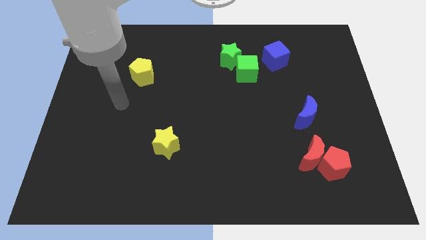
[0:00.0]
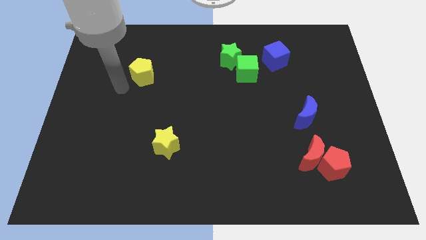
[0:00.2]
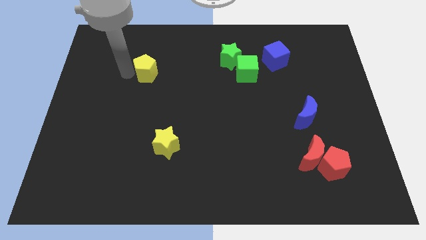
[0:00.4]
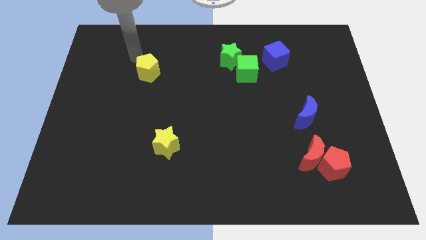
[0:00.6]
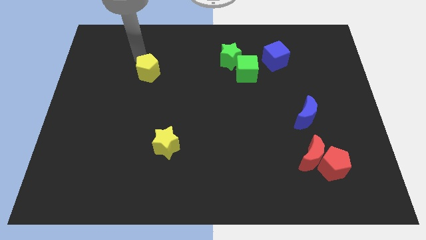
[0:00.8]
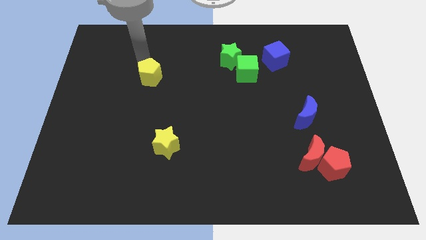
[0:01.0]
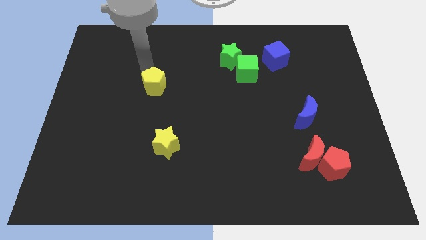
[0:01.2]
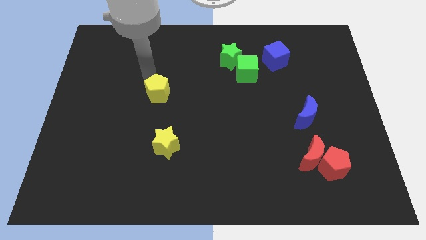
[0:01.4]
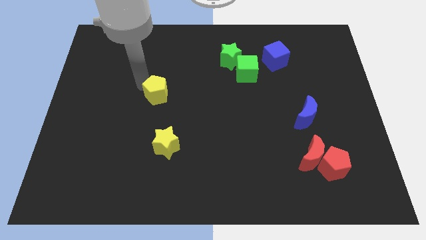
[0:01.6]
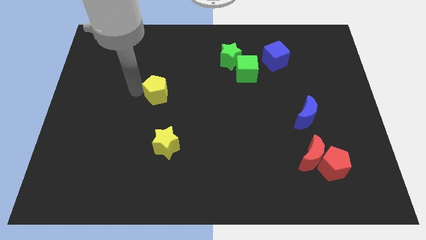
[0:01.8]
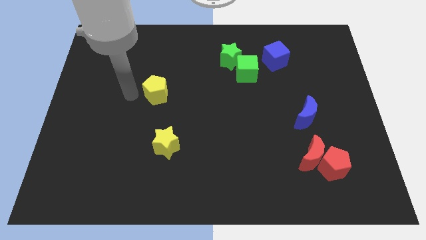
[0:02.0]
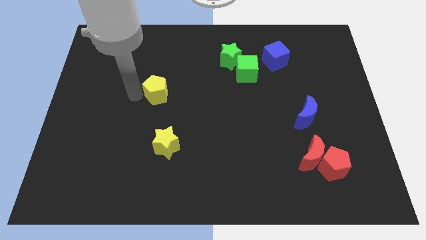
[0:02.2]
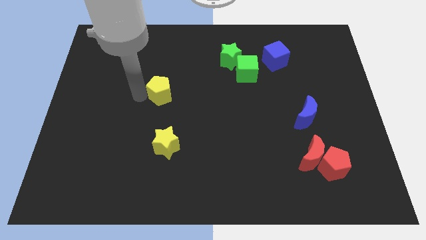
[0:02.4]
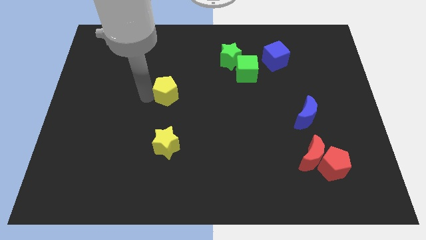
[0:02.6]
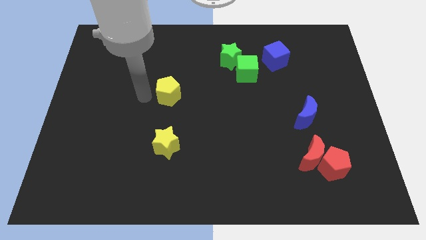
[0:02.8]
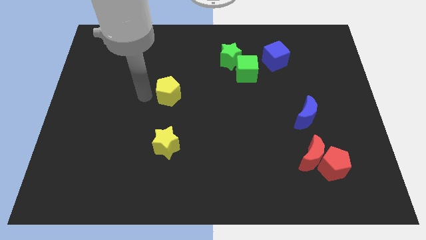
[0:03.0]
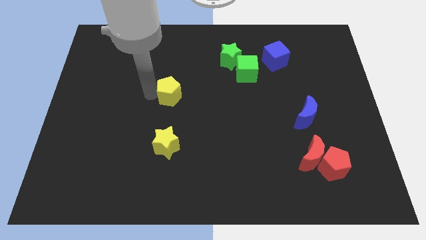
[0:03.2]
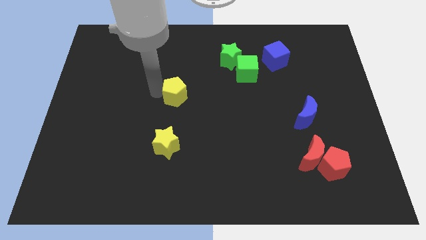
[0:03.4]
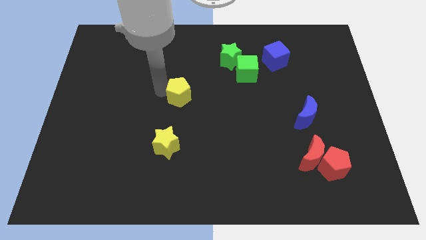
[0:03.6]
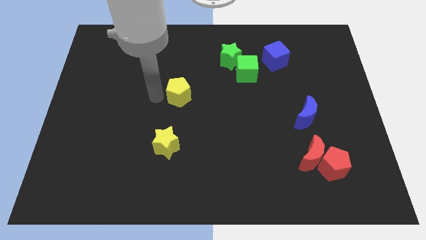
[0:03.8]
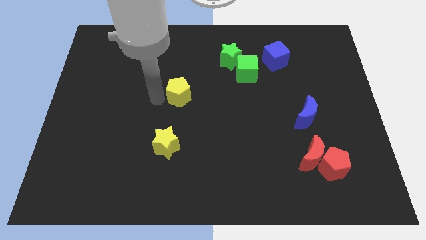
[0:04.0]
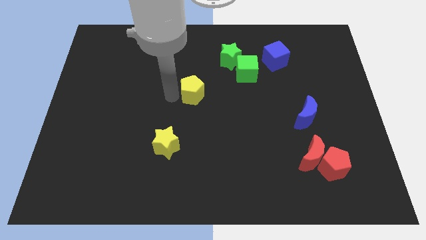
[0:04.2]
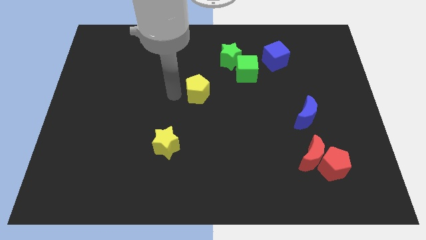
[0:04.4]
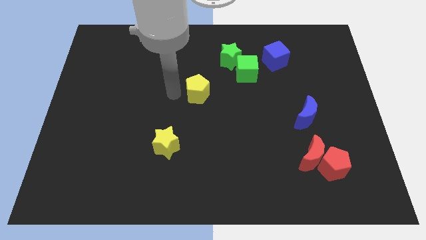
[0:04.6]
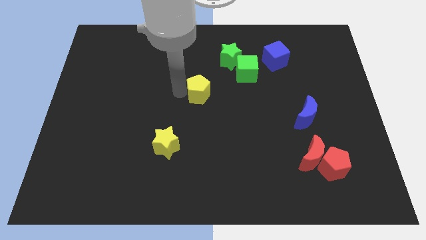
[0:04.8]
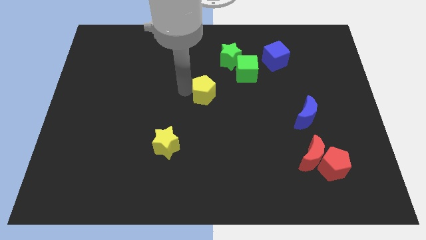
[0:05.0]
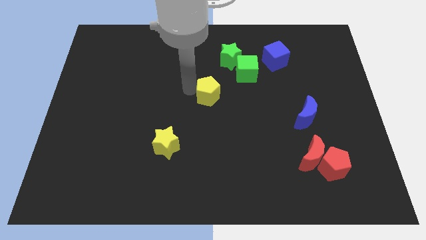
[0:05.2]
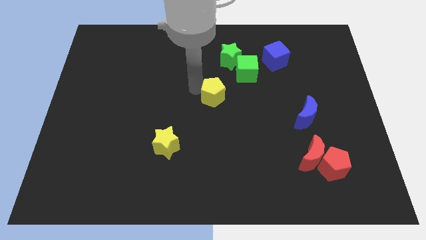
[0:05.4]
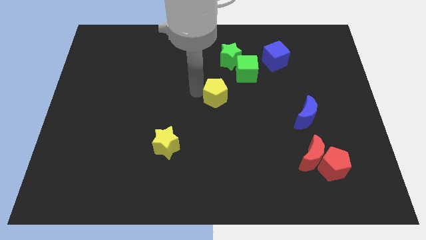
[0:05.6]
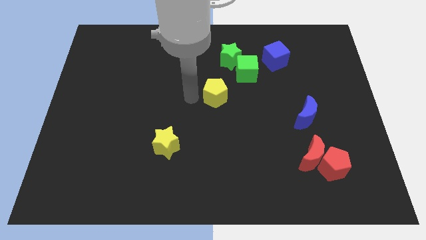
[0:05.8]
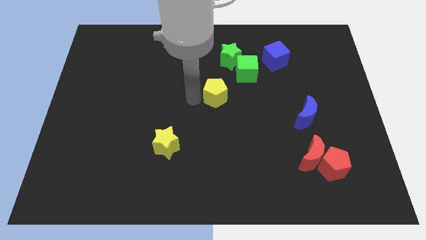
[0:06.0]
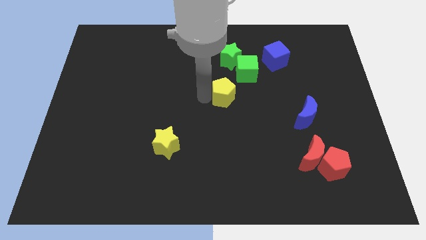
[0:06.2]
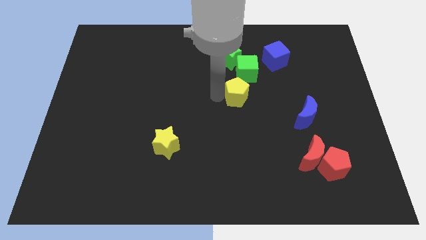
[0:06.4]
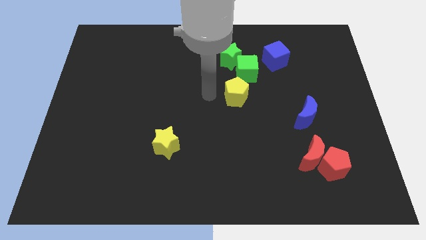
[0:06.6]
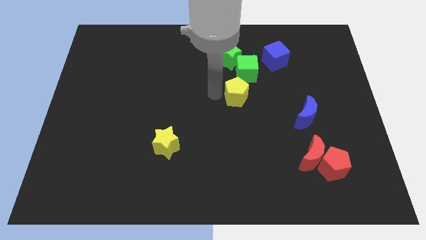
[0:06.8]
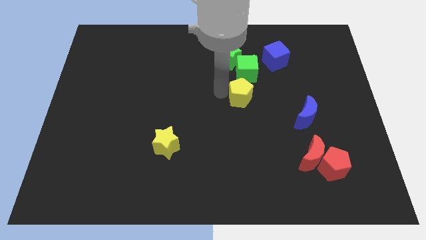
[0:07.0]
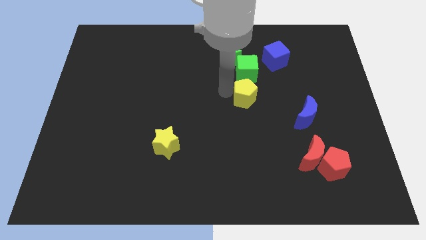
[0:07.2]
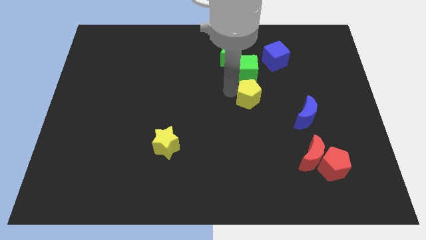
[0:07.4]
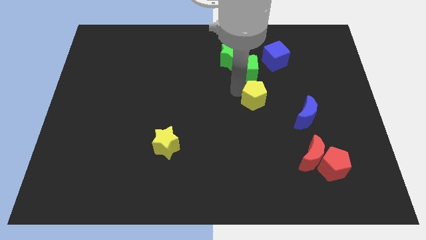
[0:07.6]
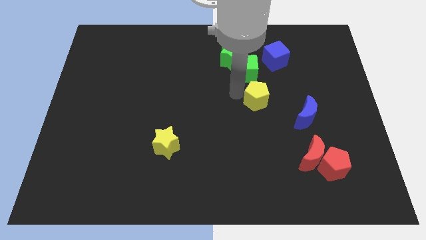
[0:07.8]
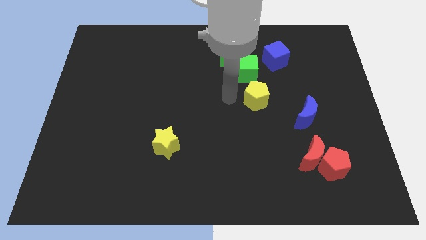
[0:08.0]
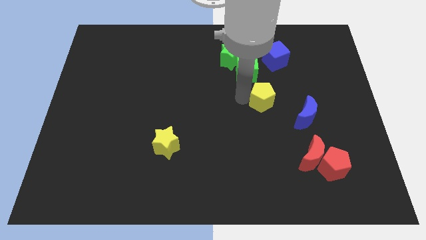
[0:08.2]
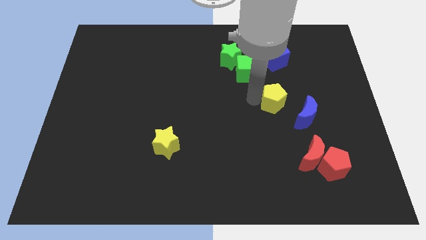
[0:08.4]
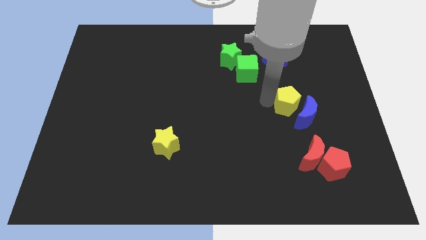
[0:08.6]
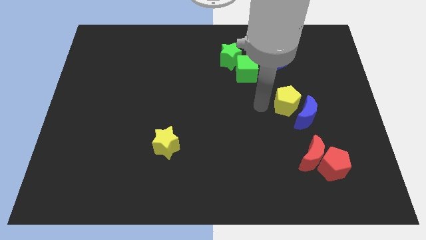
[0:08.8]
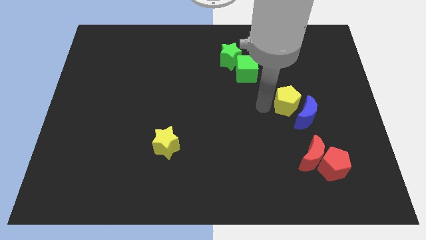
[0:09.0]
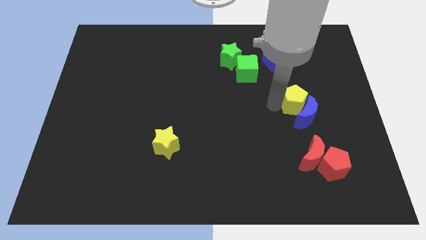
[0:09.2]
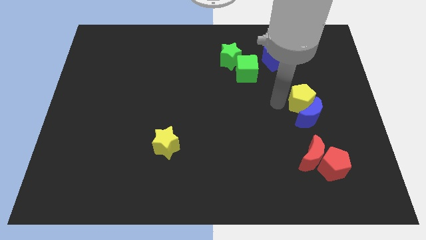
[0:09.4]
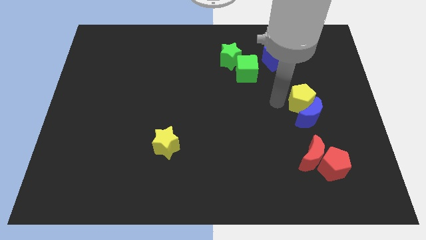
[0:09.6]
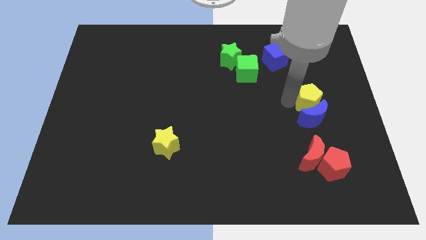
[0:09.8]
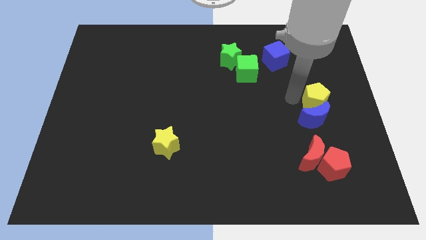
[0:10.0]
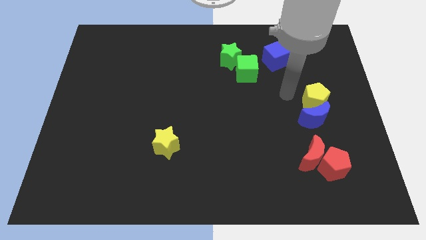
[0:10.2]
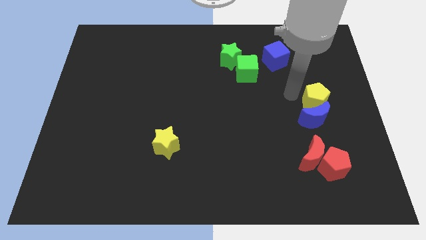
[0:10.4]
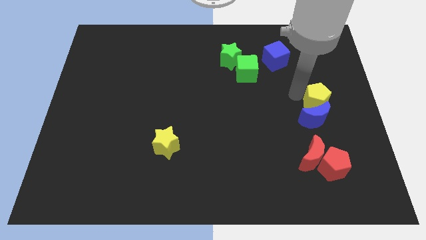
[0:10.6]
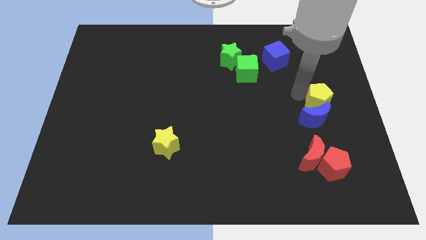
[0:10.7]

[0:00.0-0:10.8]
slide the yellow pentagon to the right side of the board
